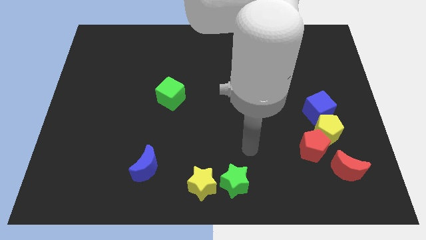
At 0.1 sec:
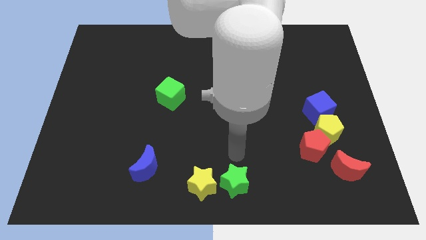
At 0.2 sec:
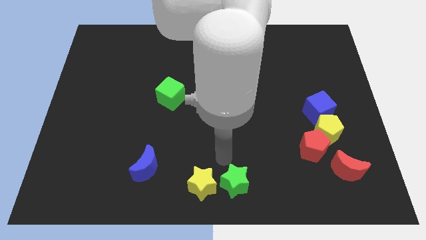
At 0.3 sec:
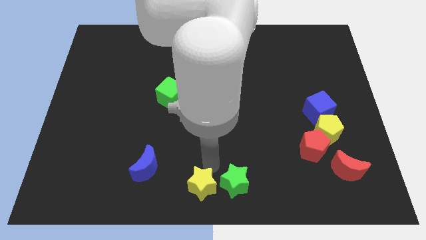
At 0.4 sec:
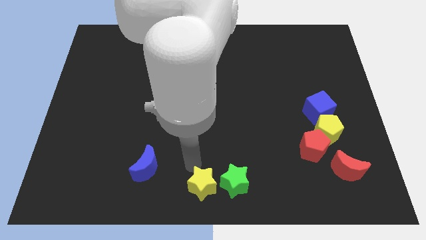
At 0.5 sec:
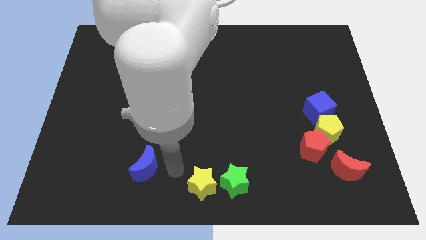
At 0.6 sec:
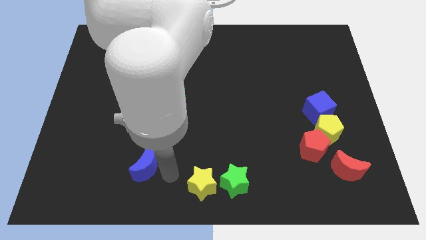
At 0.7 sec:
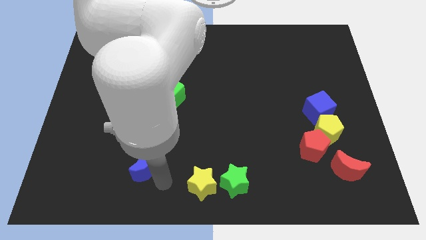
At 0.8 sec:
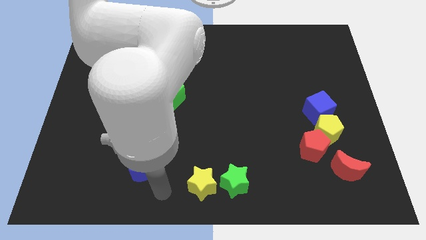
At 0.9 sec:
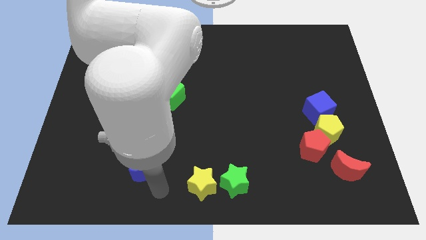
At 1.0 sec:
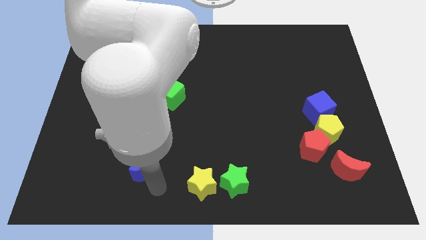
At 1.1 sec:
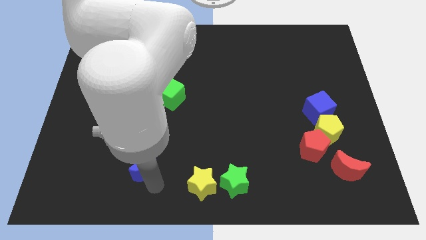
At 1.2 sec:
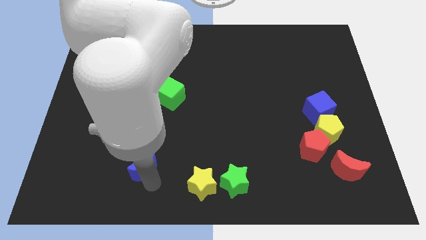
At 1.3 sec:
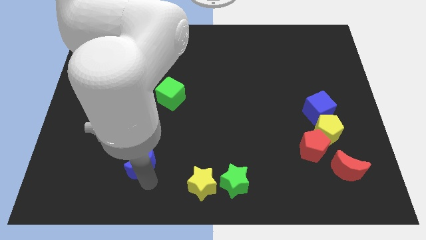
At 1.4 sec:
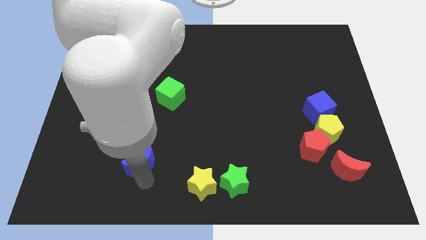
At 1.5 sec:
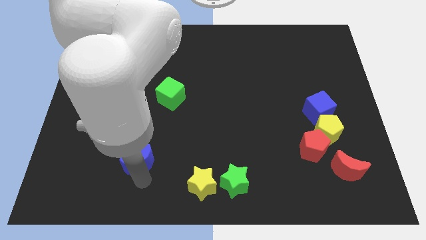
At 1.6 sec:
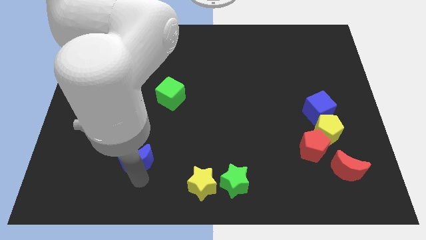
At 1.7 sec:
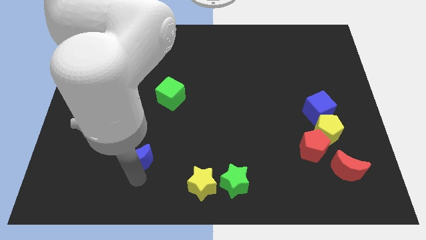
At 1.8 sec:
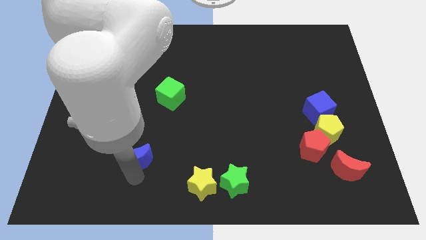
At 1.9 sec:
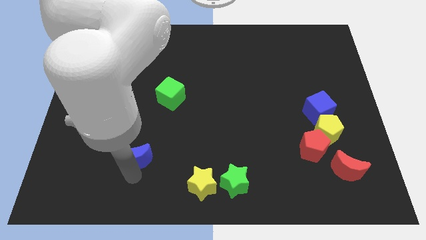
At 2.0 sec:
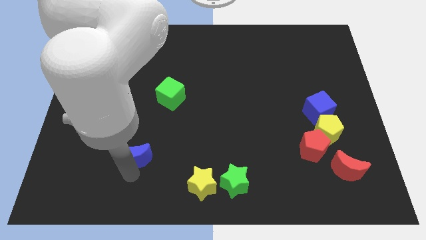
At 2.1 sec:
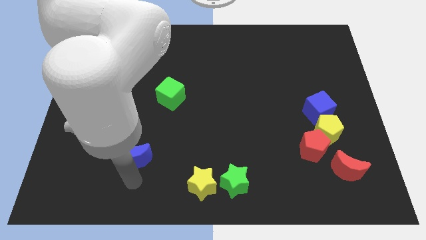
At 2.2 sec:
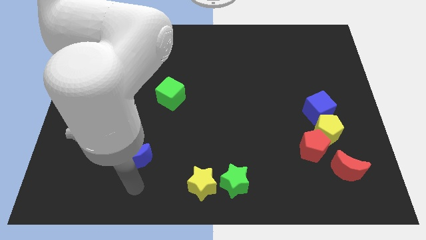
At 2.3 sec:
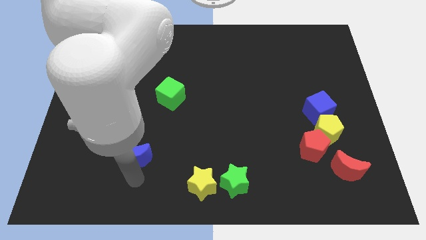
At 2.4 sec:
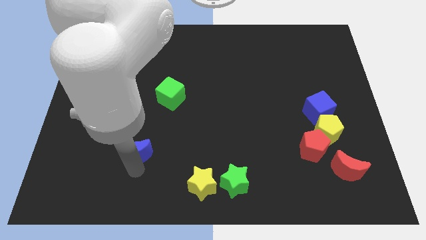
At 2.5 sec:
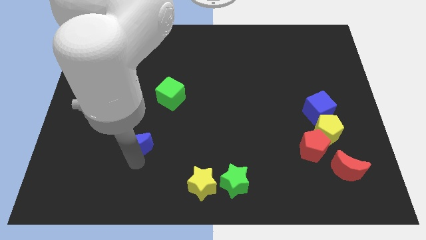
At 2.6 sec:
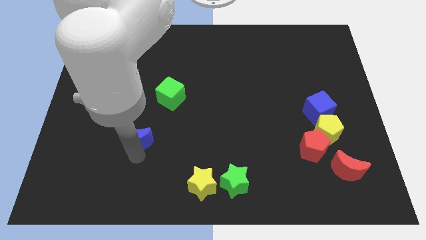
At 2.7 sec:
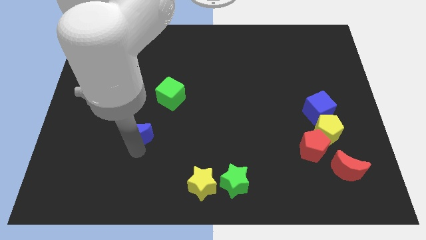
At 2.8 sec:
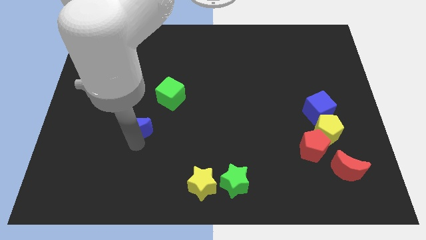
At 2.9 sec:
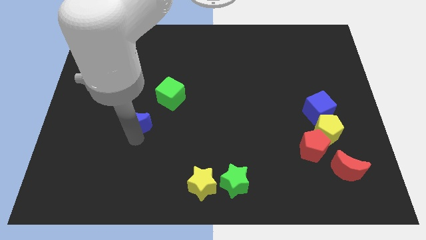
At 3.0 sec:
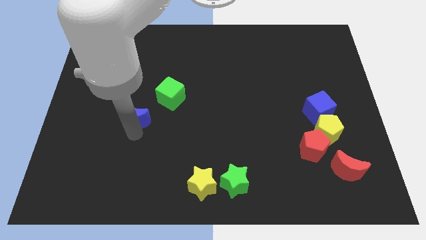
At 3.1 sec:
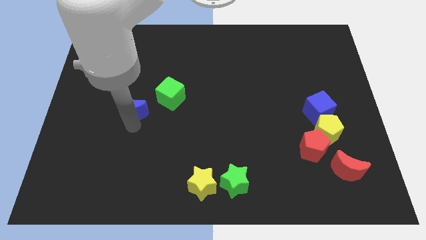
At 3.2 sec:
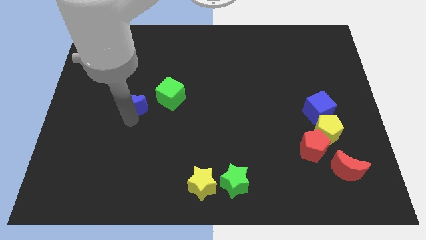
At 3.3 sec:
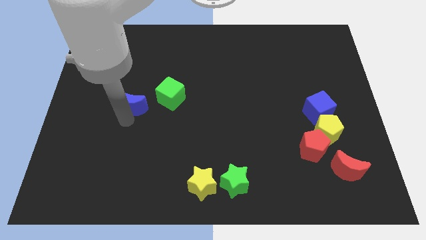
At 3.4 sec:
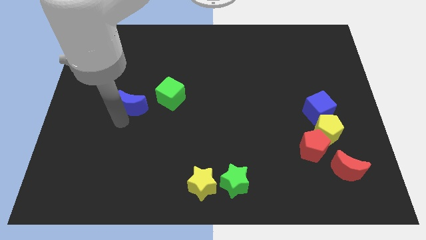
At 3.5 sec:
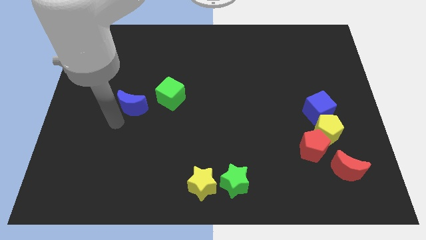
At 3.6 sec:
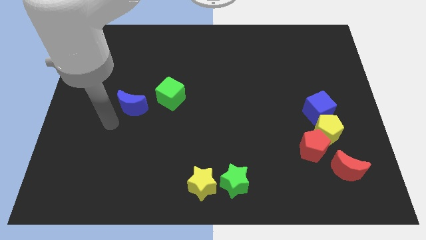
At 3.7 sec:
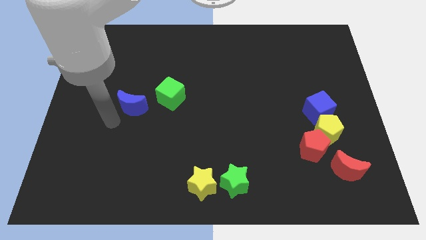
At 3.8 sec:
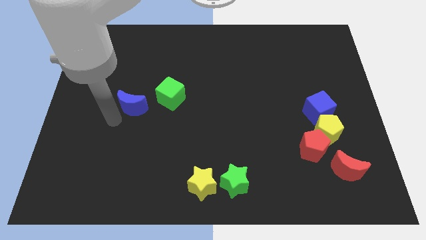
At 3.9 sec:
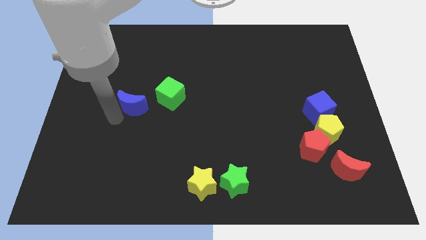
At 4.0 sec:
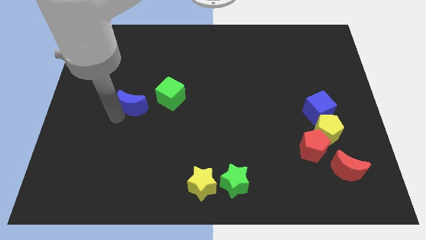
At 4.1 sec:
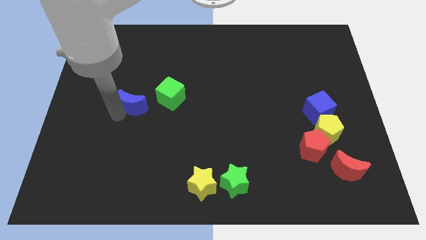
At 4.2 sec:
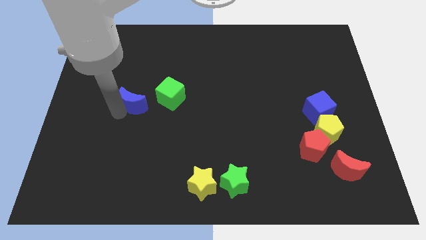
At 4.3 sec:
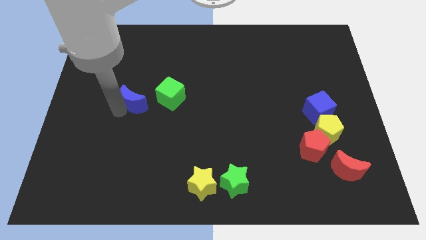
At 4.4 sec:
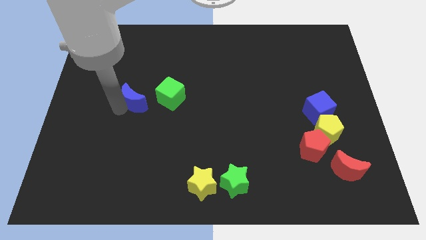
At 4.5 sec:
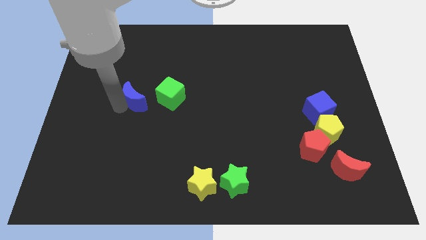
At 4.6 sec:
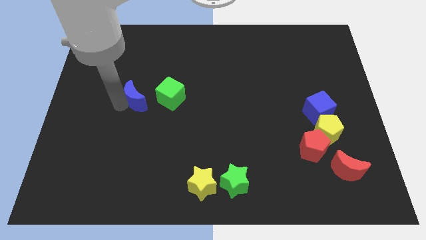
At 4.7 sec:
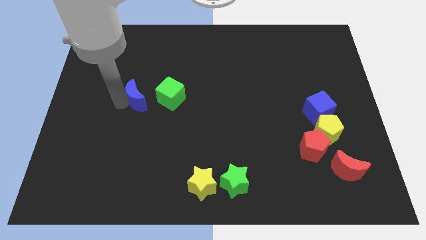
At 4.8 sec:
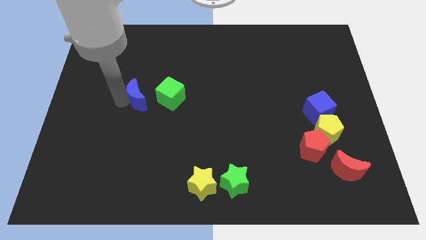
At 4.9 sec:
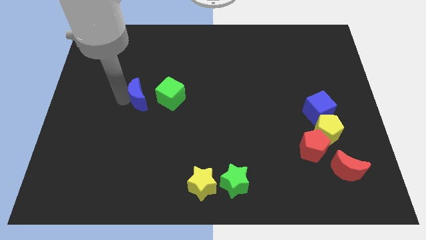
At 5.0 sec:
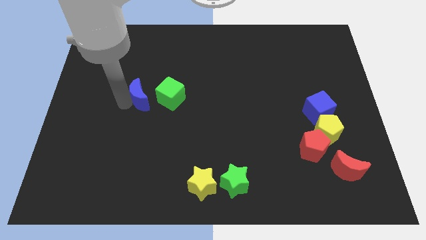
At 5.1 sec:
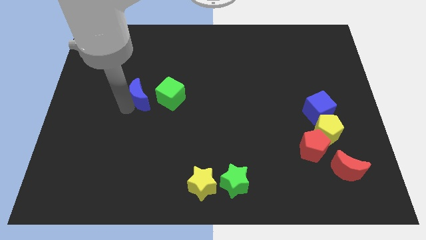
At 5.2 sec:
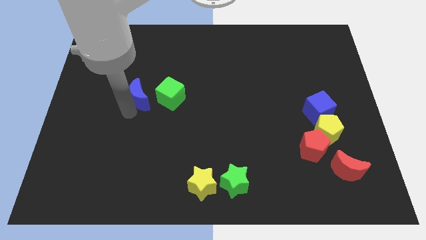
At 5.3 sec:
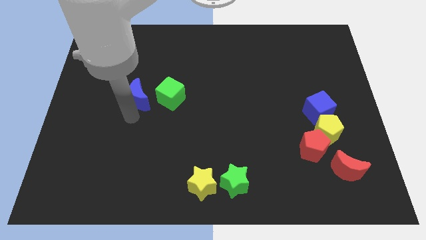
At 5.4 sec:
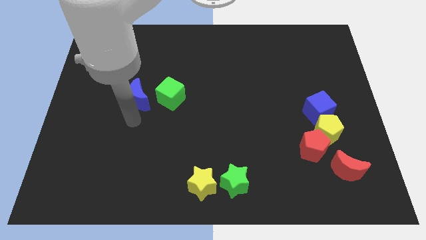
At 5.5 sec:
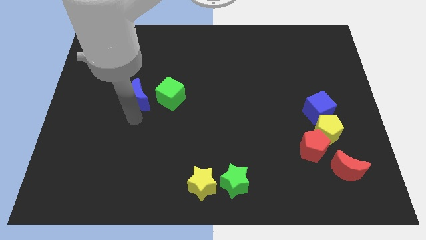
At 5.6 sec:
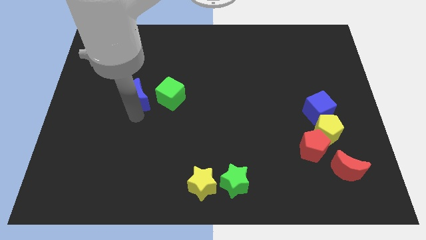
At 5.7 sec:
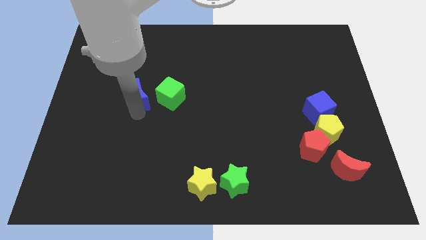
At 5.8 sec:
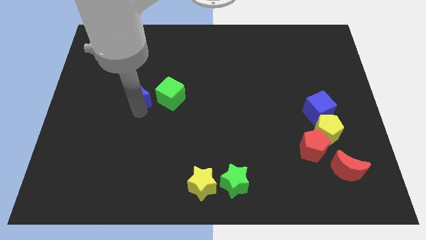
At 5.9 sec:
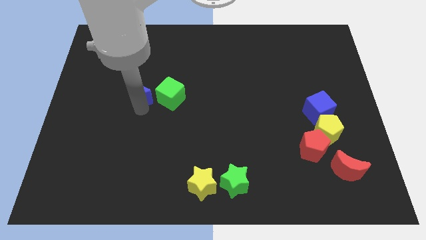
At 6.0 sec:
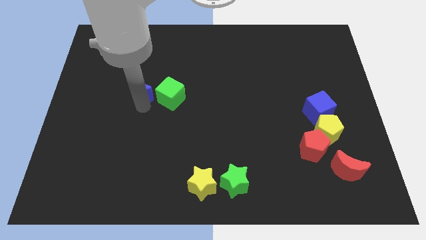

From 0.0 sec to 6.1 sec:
move the blue moon upwards

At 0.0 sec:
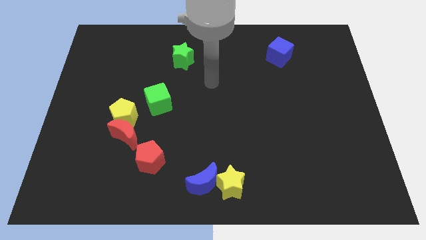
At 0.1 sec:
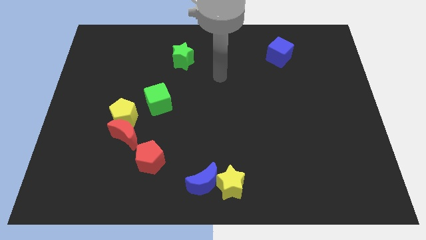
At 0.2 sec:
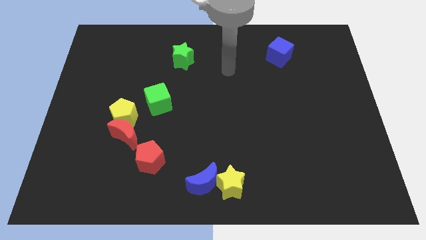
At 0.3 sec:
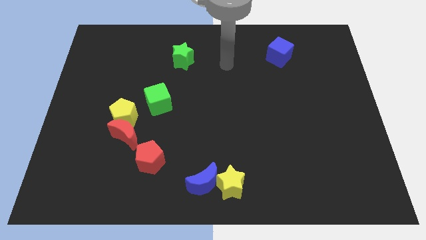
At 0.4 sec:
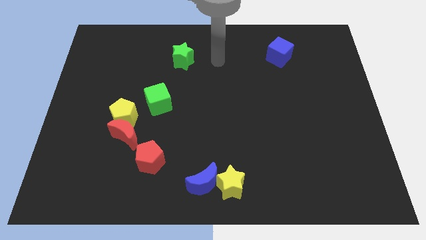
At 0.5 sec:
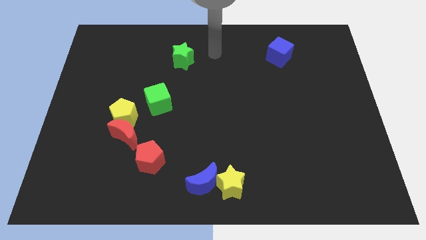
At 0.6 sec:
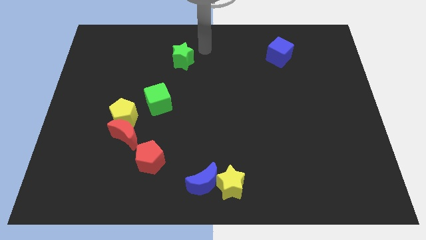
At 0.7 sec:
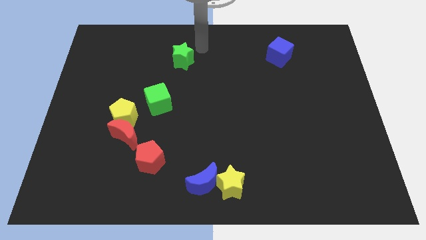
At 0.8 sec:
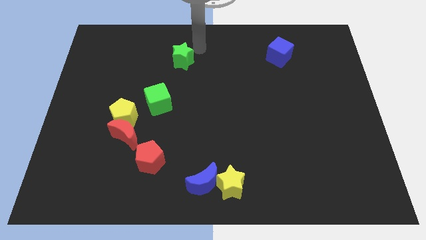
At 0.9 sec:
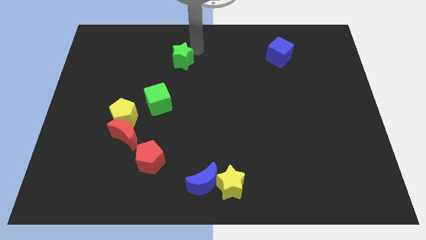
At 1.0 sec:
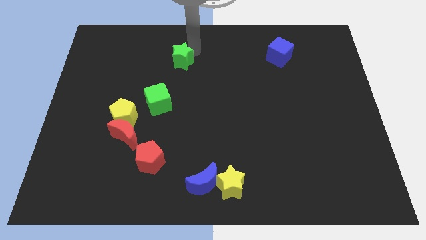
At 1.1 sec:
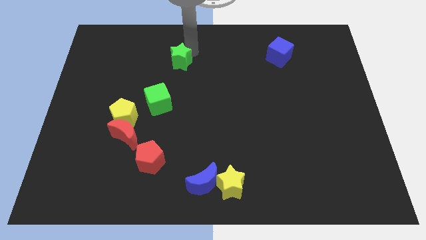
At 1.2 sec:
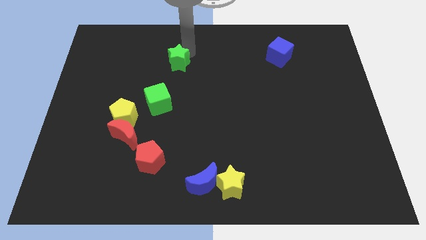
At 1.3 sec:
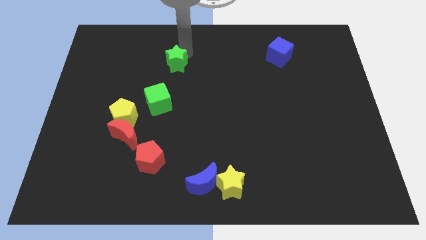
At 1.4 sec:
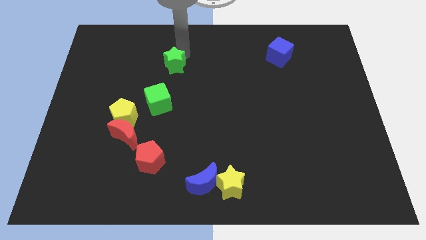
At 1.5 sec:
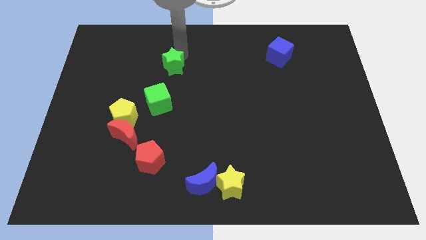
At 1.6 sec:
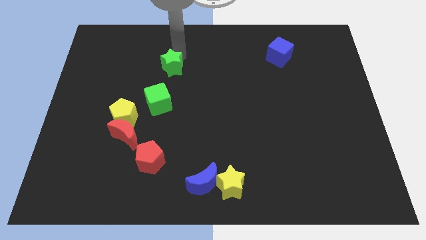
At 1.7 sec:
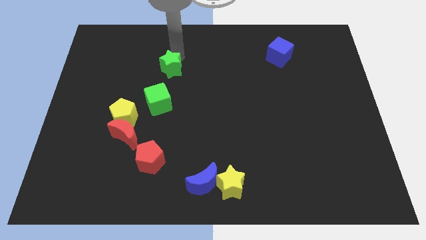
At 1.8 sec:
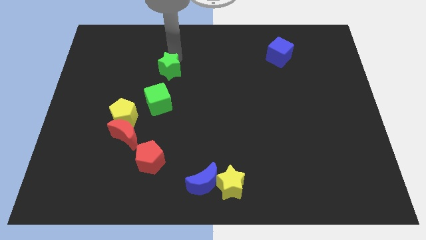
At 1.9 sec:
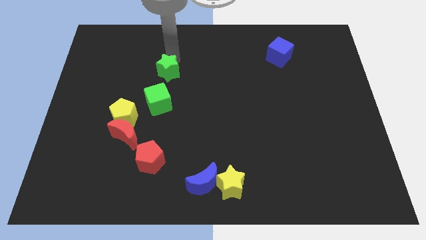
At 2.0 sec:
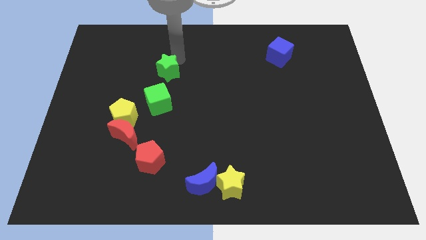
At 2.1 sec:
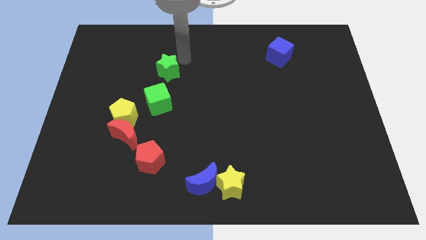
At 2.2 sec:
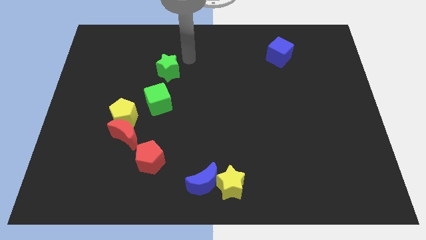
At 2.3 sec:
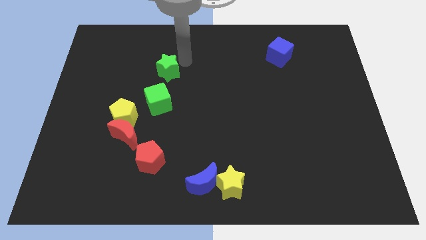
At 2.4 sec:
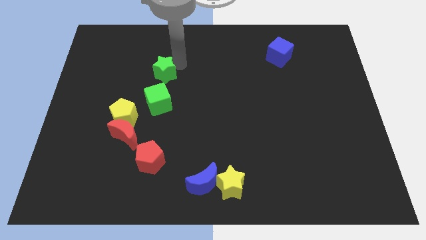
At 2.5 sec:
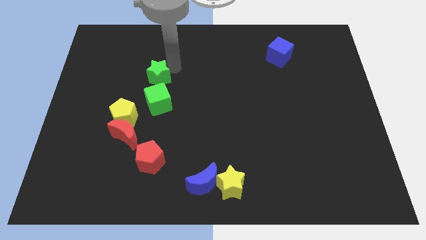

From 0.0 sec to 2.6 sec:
slide the green star diagonally down and left a bit
